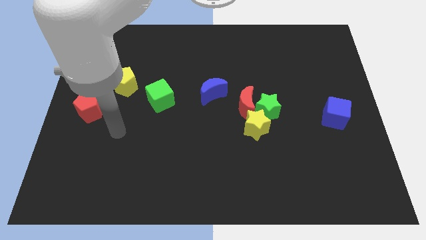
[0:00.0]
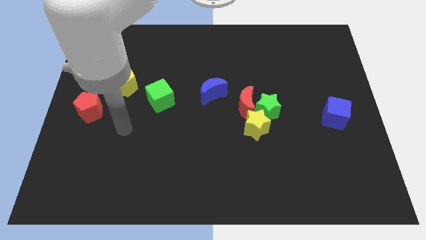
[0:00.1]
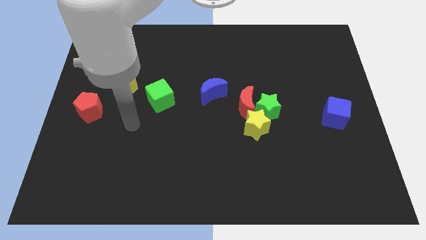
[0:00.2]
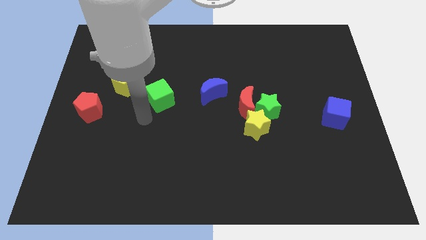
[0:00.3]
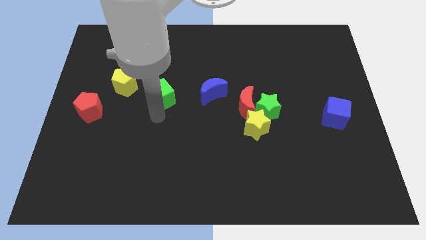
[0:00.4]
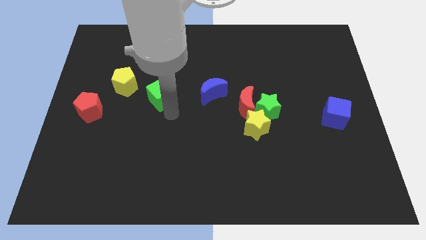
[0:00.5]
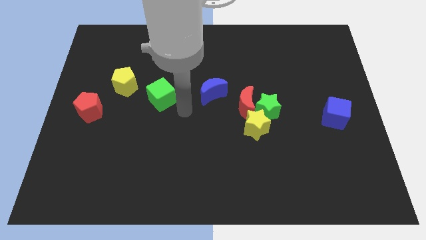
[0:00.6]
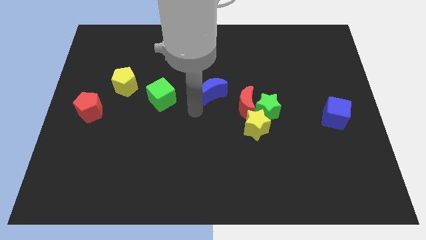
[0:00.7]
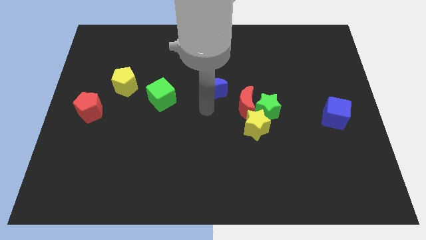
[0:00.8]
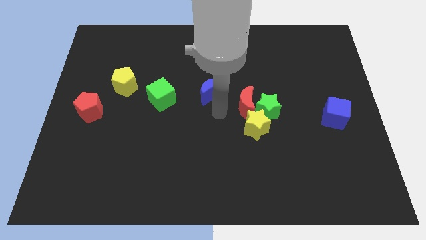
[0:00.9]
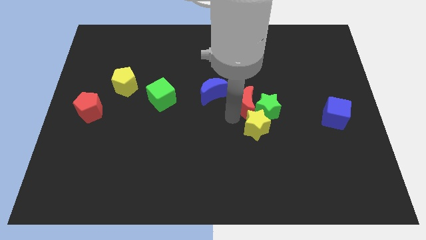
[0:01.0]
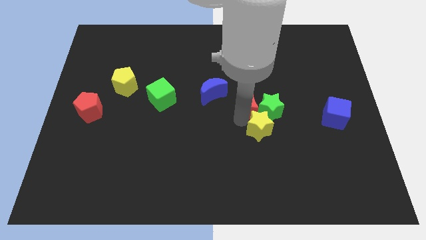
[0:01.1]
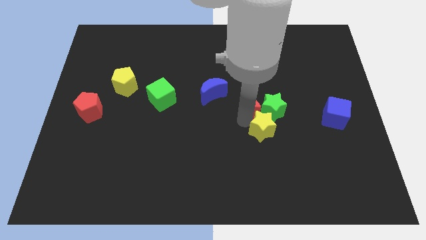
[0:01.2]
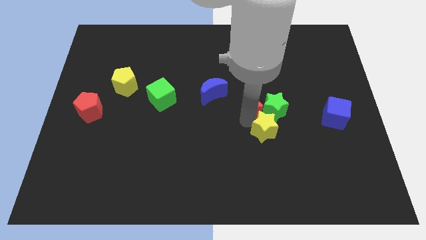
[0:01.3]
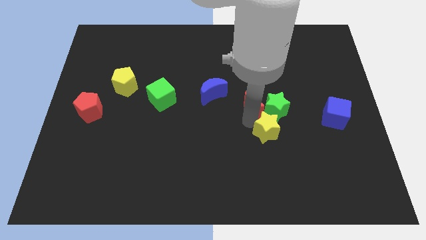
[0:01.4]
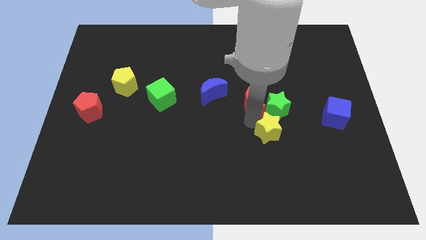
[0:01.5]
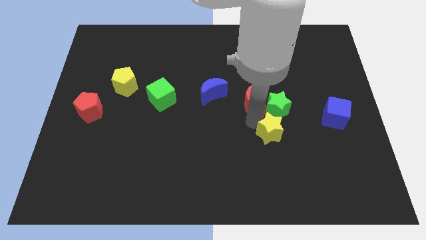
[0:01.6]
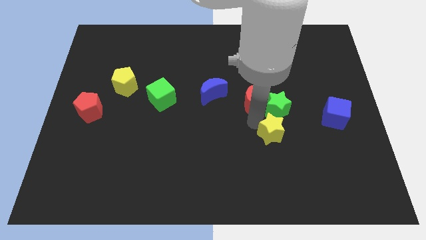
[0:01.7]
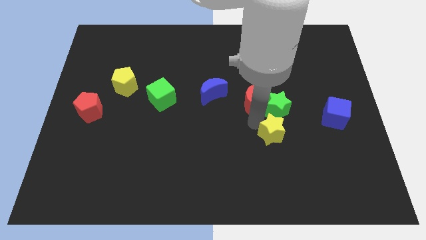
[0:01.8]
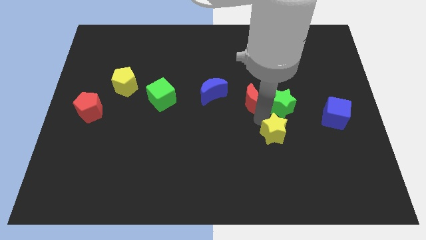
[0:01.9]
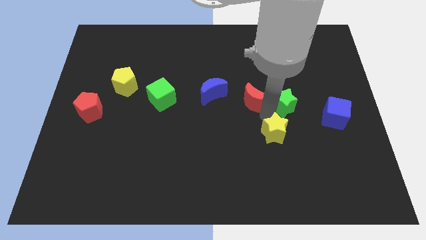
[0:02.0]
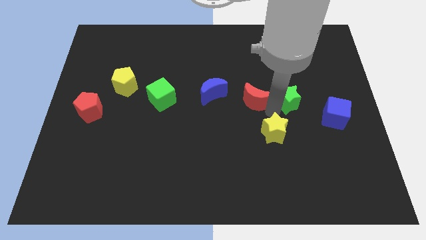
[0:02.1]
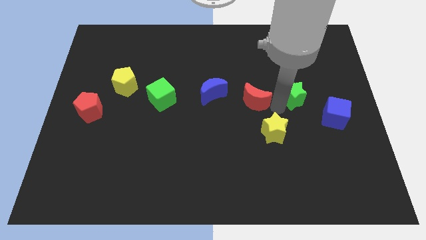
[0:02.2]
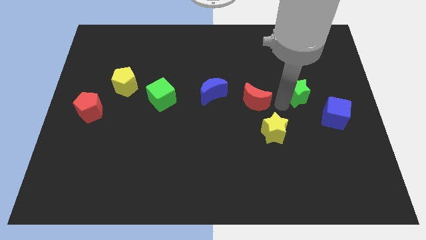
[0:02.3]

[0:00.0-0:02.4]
separate the green star from the red moon and yellow star

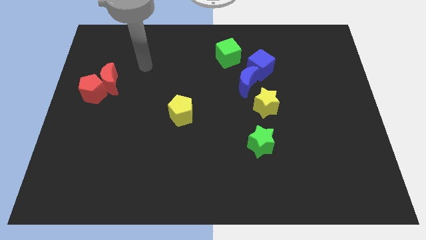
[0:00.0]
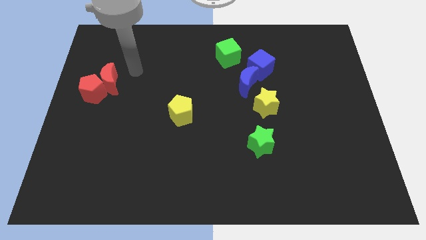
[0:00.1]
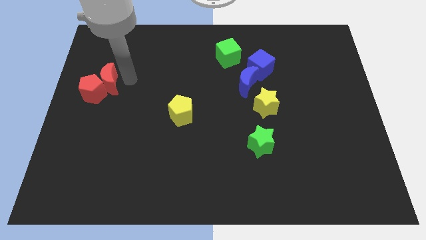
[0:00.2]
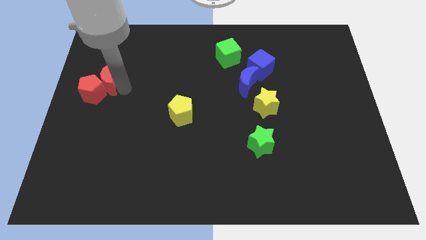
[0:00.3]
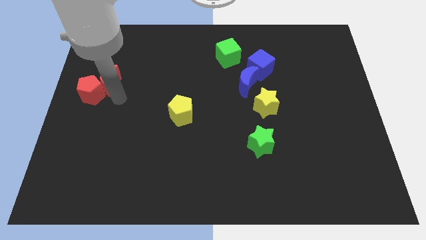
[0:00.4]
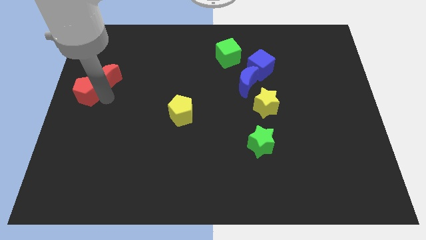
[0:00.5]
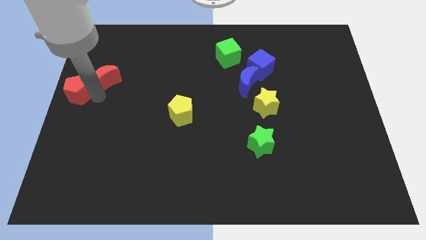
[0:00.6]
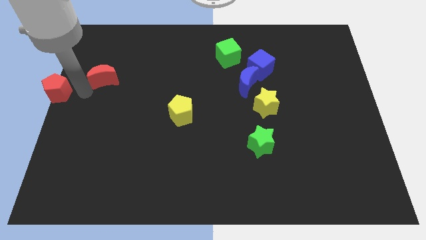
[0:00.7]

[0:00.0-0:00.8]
move the red moon away from the red pentagon

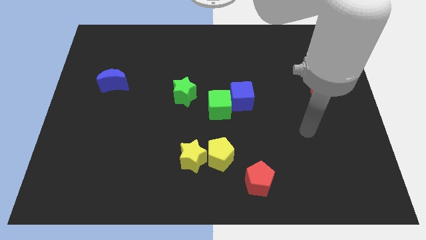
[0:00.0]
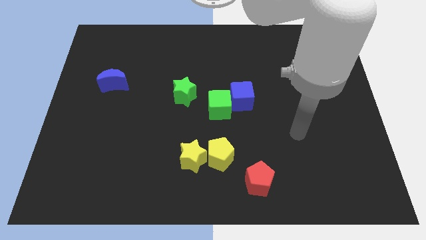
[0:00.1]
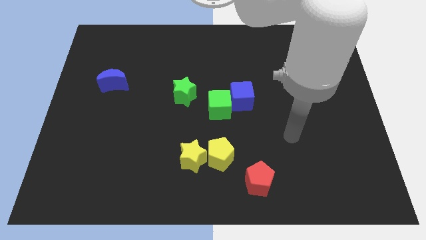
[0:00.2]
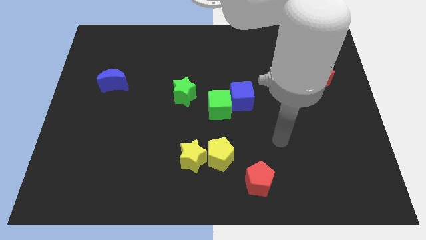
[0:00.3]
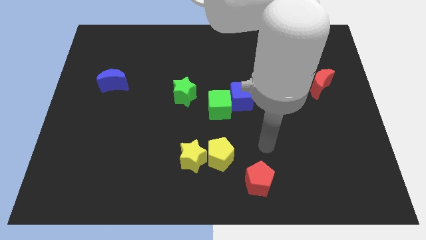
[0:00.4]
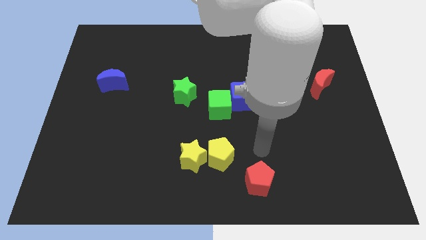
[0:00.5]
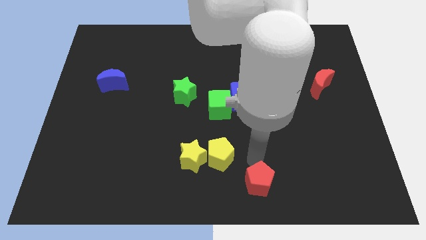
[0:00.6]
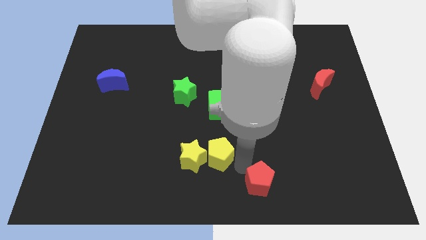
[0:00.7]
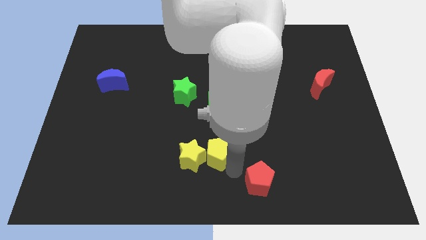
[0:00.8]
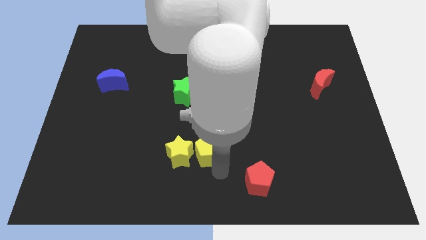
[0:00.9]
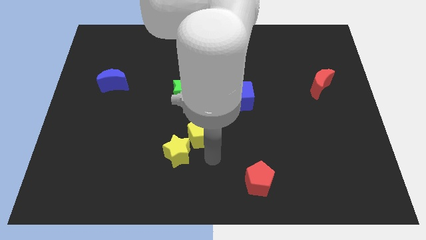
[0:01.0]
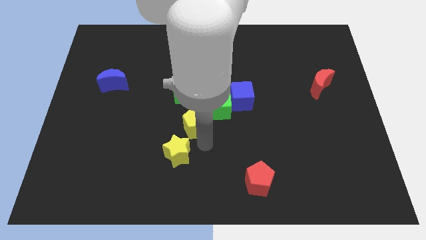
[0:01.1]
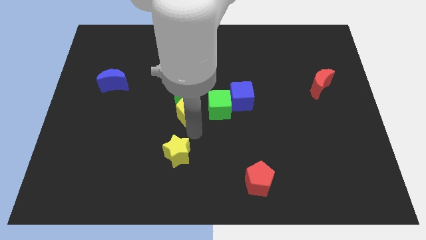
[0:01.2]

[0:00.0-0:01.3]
move the yellow star away from the yellow pentagon

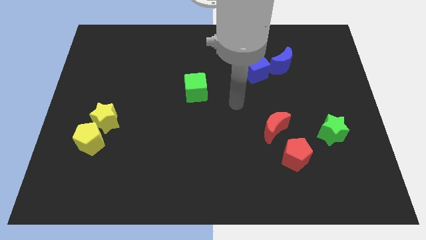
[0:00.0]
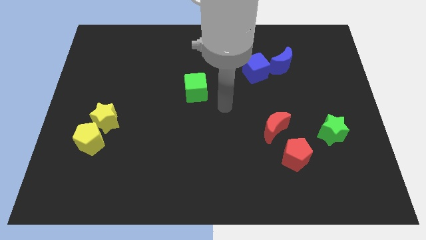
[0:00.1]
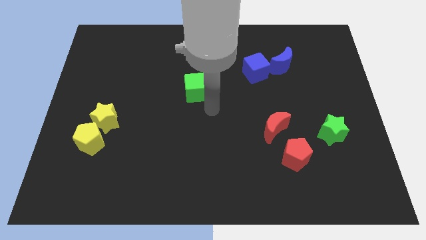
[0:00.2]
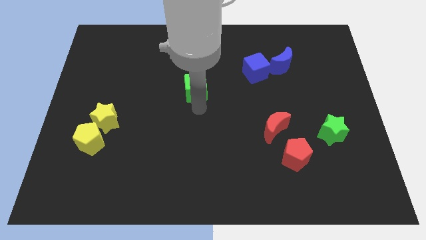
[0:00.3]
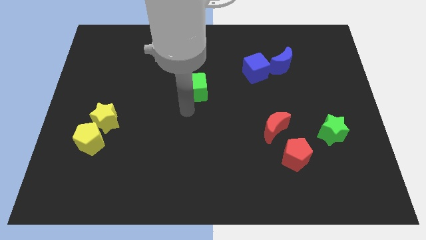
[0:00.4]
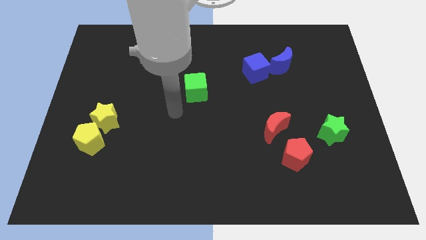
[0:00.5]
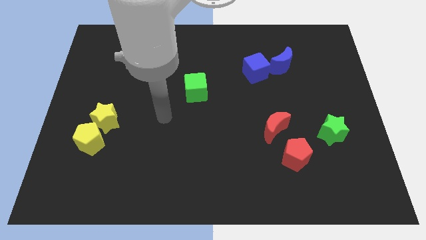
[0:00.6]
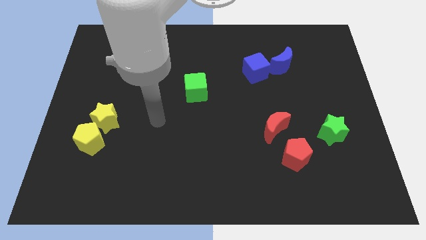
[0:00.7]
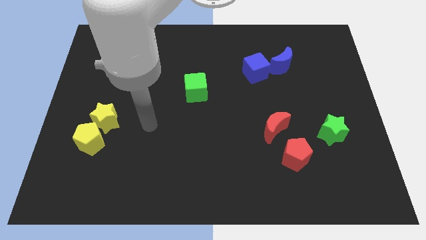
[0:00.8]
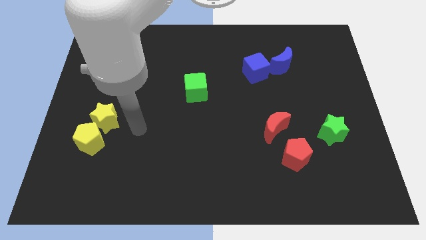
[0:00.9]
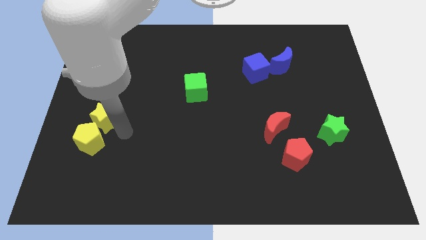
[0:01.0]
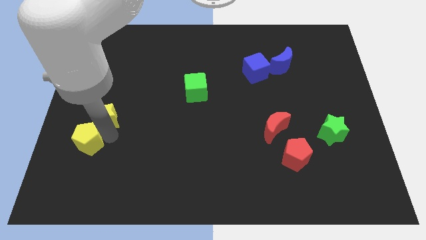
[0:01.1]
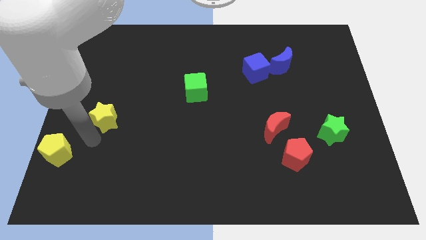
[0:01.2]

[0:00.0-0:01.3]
separate the yellow star from the yellow pentagon

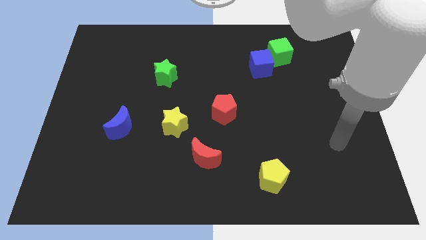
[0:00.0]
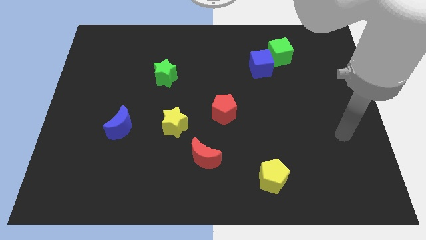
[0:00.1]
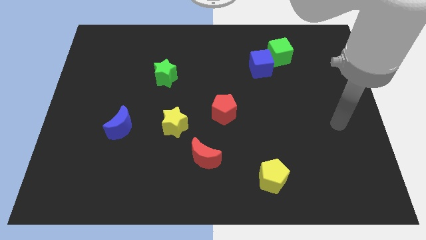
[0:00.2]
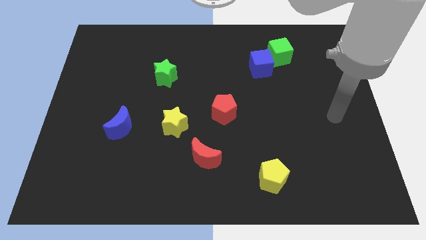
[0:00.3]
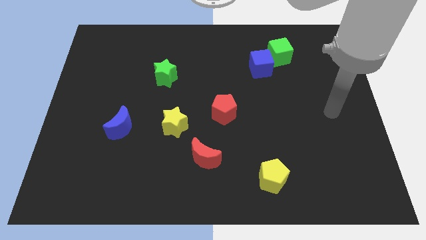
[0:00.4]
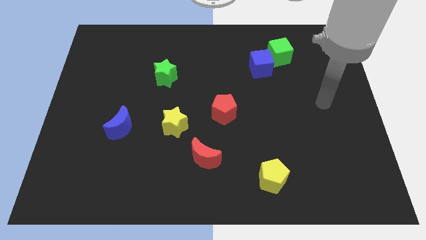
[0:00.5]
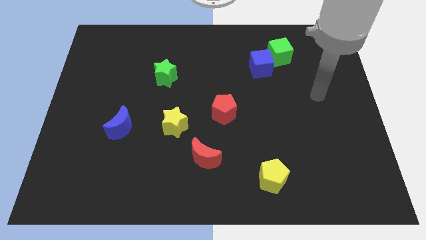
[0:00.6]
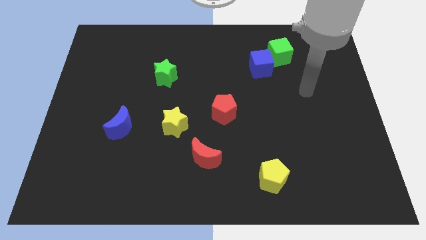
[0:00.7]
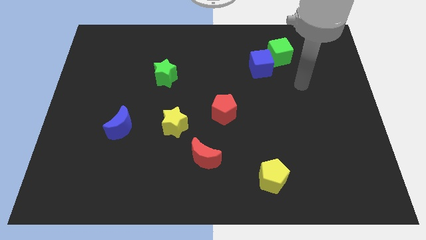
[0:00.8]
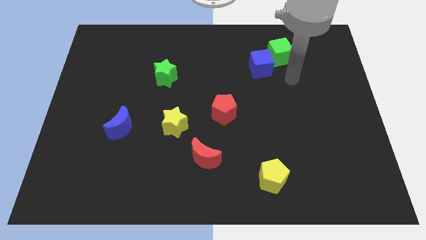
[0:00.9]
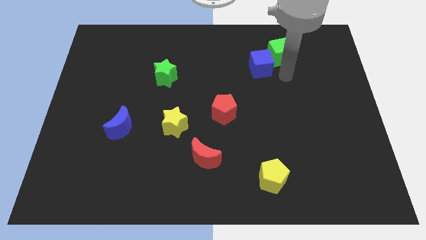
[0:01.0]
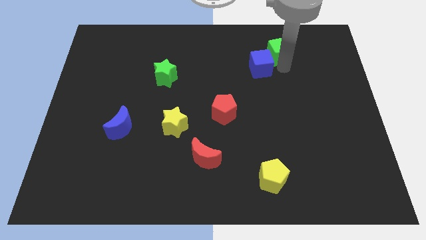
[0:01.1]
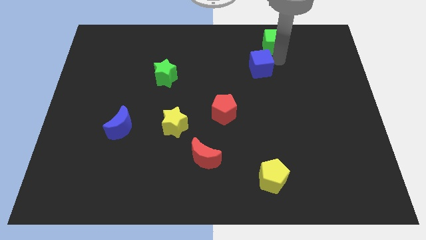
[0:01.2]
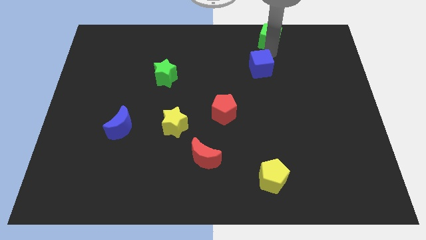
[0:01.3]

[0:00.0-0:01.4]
separate the blue cube from the green cube

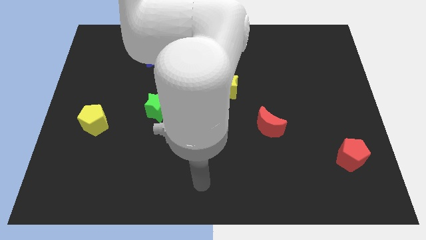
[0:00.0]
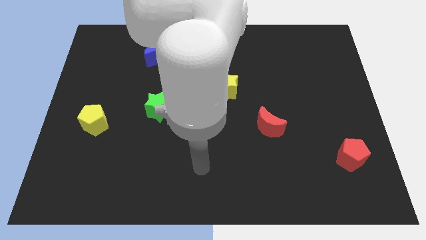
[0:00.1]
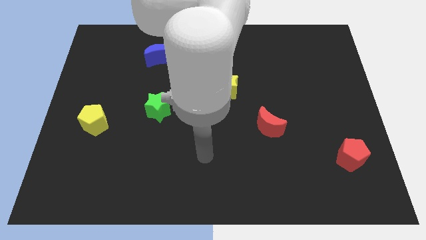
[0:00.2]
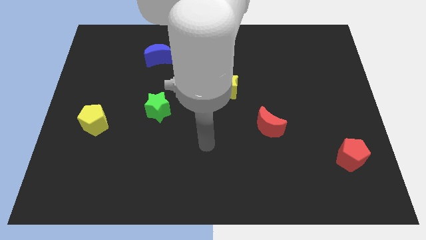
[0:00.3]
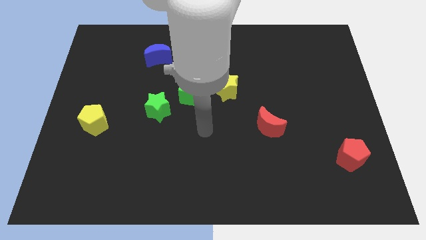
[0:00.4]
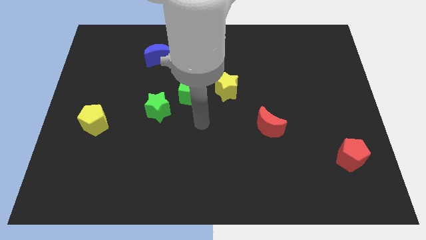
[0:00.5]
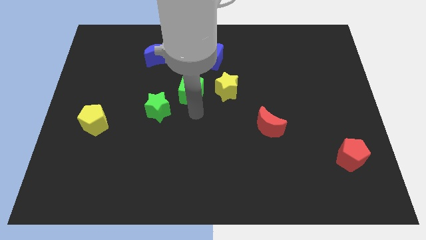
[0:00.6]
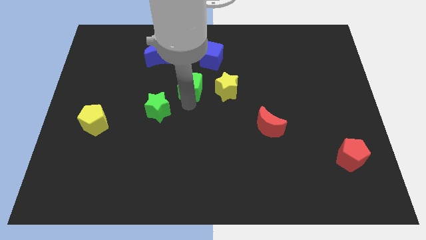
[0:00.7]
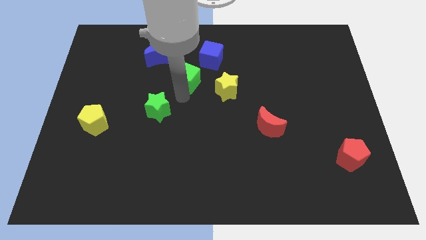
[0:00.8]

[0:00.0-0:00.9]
pull the green star apart from the green cube

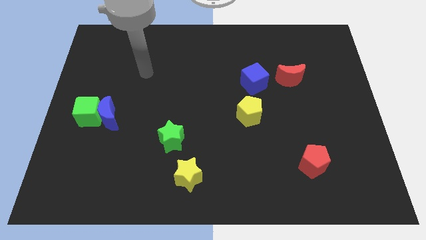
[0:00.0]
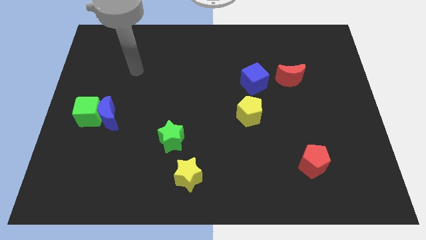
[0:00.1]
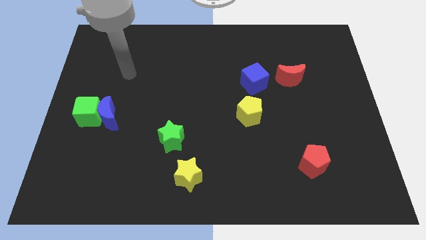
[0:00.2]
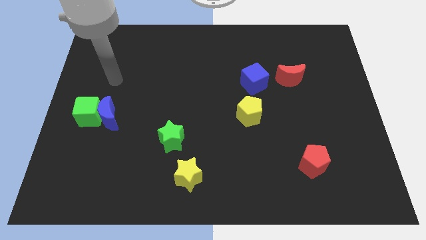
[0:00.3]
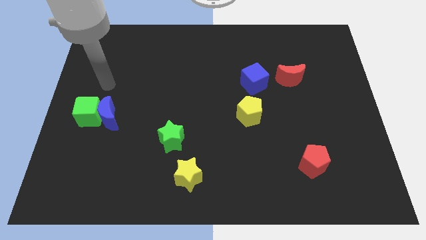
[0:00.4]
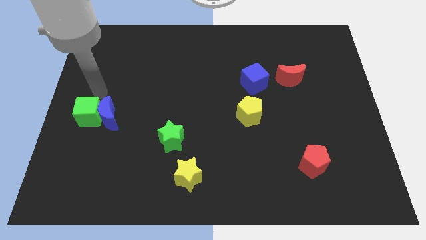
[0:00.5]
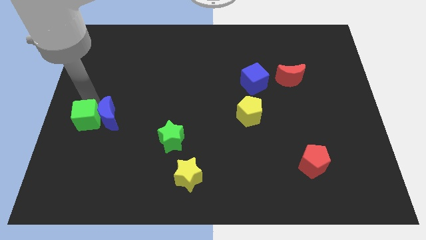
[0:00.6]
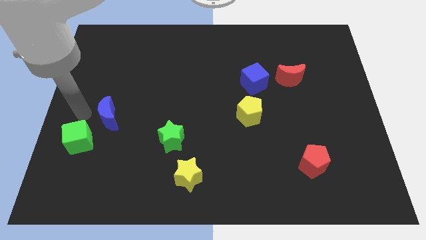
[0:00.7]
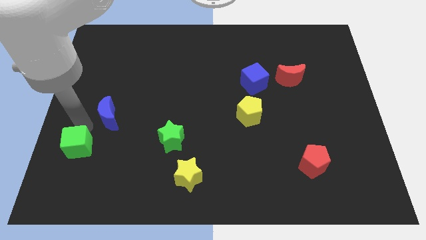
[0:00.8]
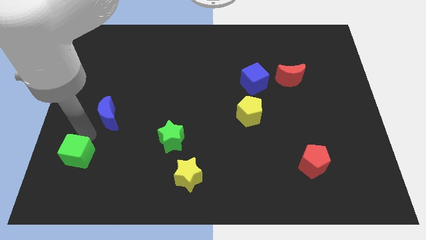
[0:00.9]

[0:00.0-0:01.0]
pull the blue moon apart from the green cube

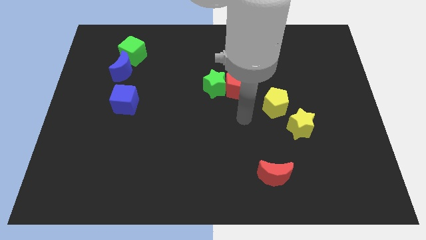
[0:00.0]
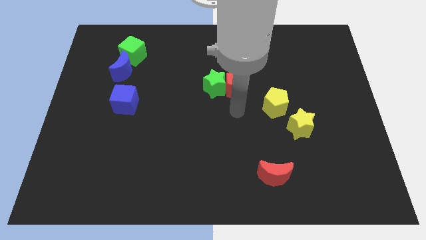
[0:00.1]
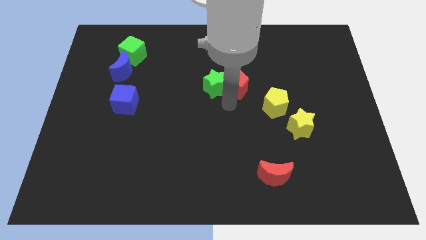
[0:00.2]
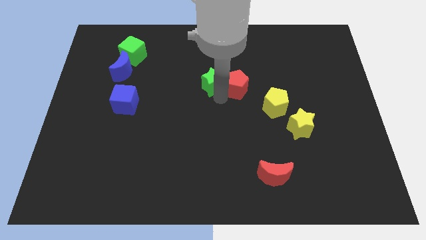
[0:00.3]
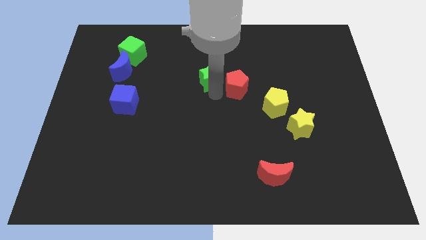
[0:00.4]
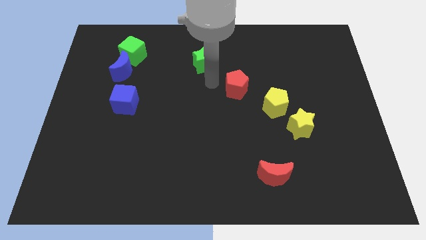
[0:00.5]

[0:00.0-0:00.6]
separate the red pentagon from the green star
